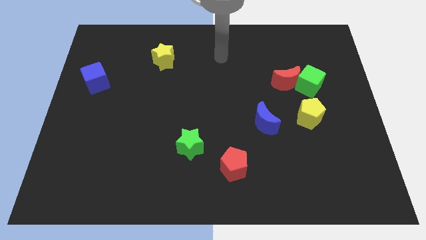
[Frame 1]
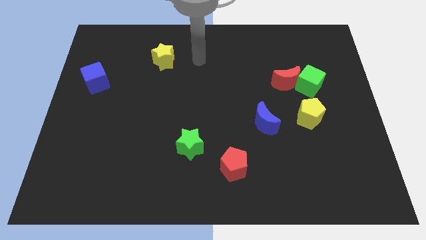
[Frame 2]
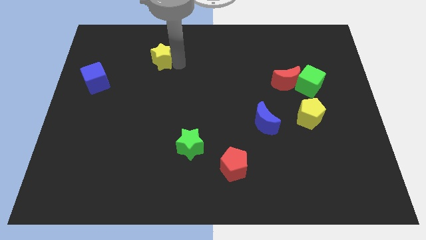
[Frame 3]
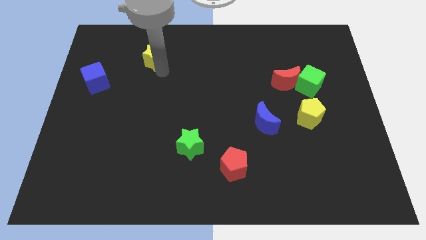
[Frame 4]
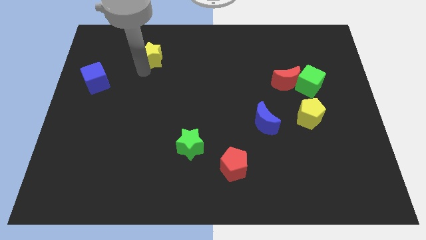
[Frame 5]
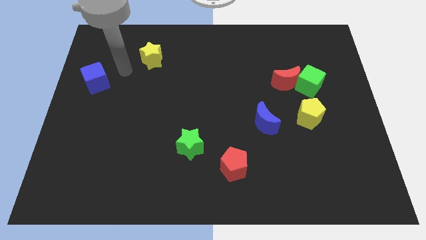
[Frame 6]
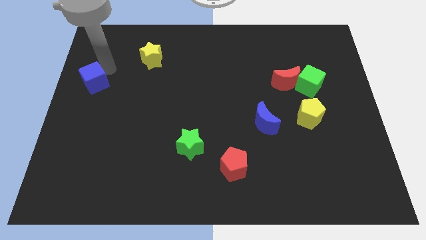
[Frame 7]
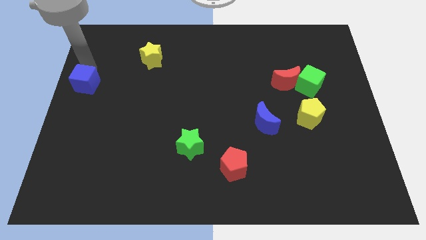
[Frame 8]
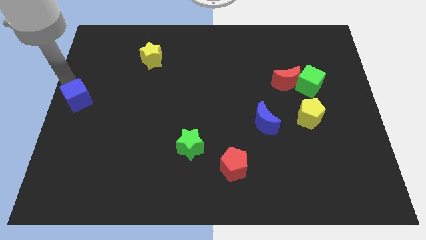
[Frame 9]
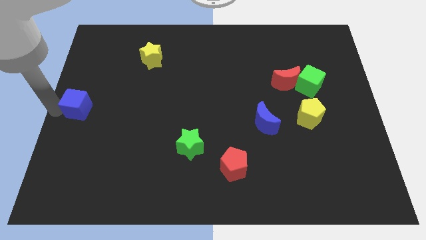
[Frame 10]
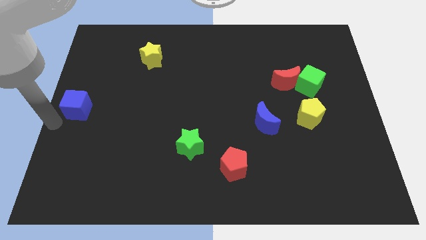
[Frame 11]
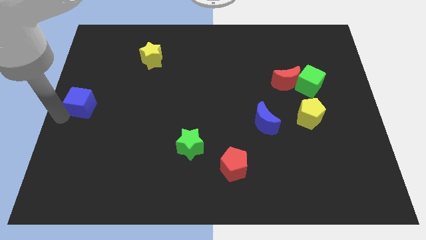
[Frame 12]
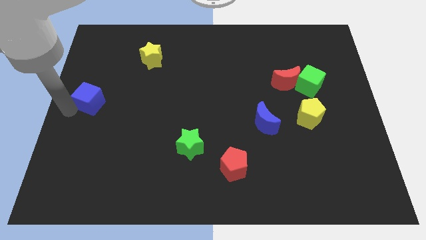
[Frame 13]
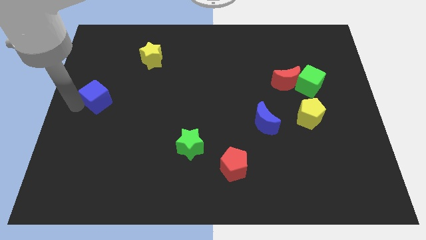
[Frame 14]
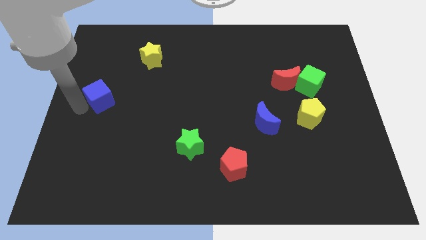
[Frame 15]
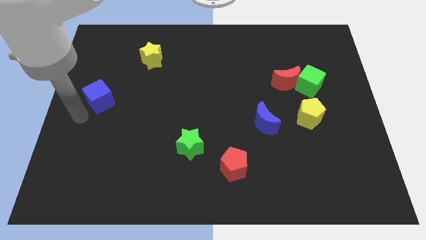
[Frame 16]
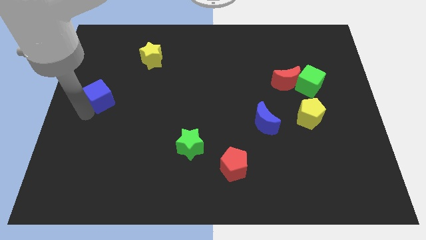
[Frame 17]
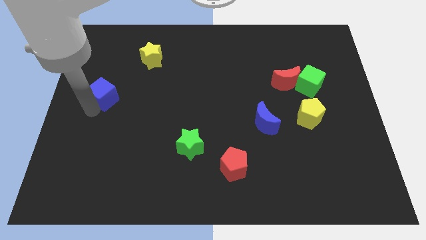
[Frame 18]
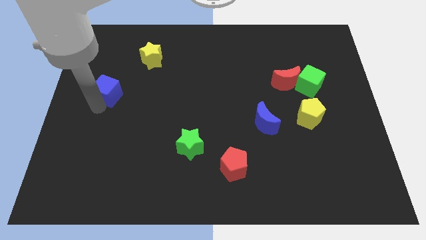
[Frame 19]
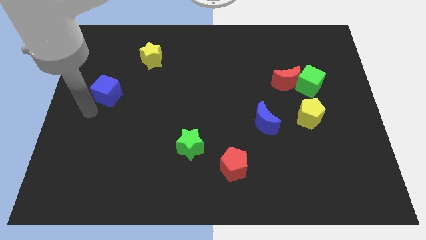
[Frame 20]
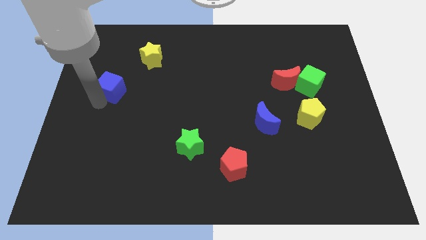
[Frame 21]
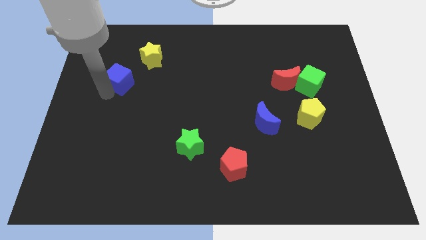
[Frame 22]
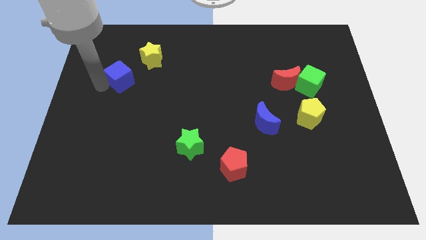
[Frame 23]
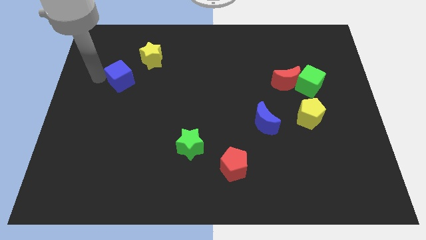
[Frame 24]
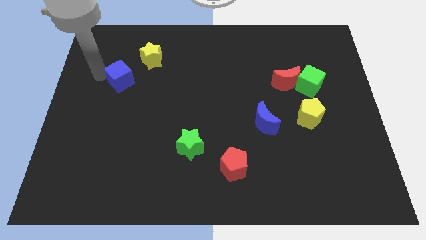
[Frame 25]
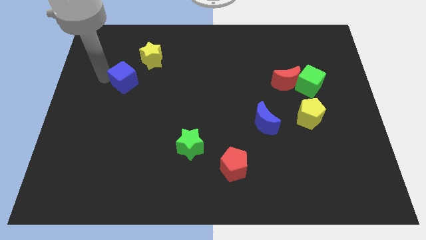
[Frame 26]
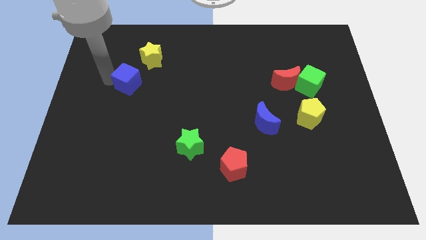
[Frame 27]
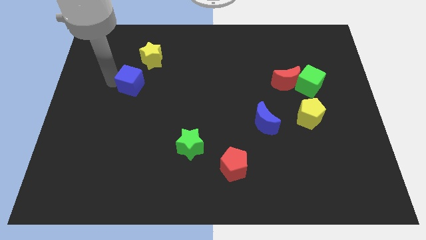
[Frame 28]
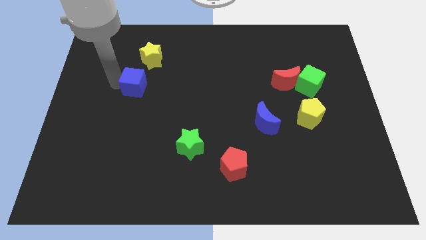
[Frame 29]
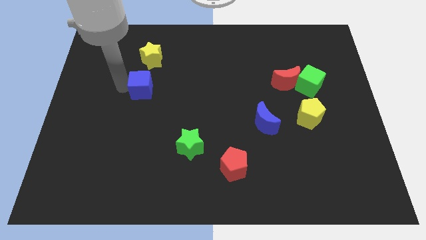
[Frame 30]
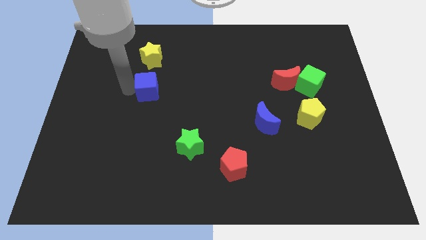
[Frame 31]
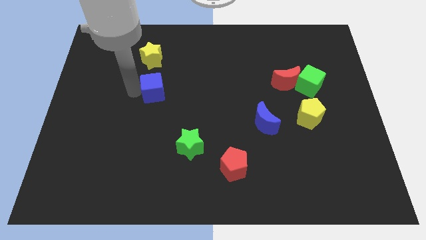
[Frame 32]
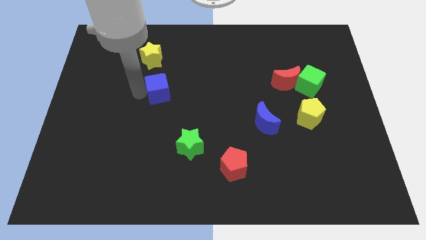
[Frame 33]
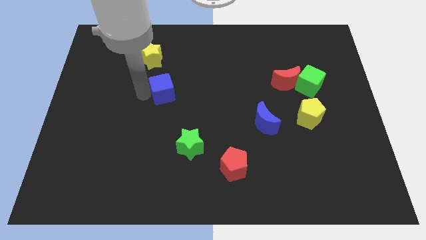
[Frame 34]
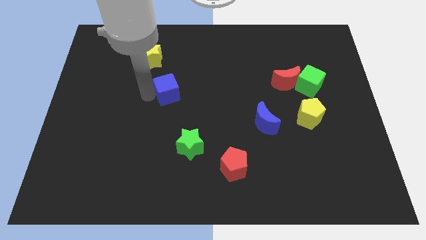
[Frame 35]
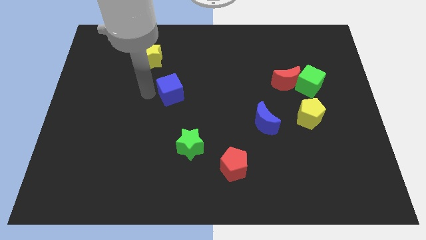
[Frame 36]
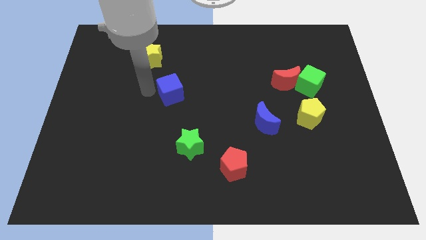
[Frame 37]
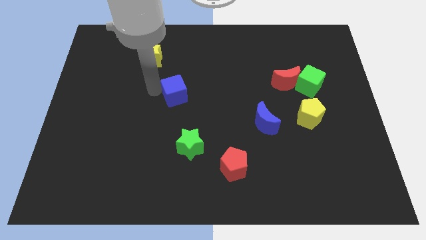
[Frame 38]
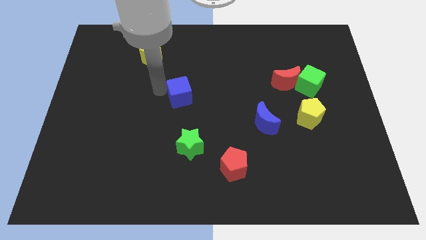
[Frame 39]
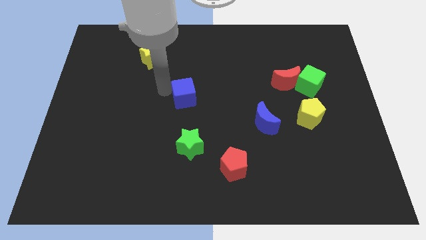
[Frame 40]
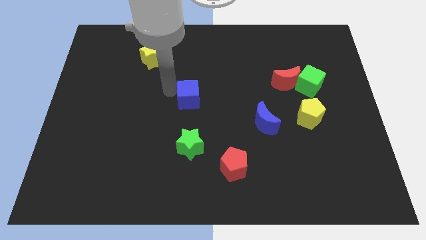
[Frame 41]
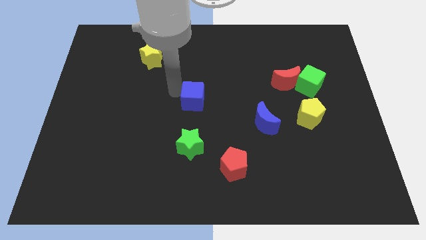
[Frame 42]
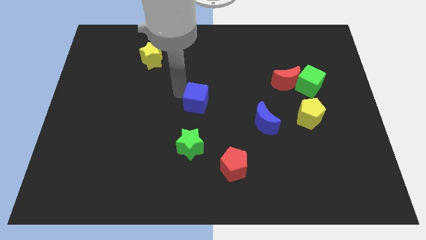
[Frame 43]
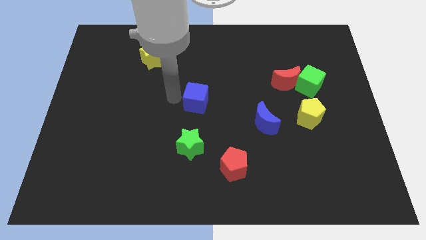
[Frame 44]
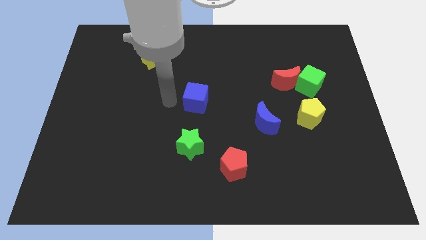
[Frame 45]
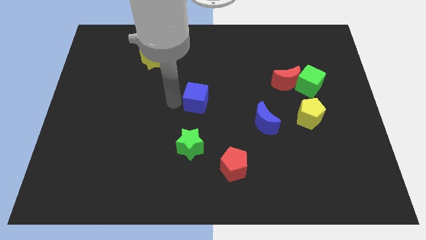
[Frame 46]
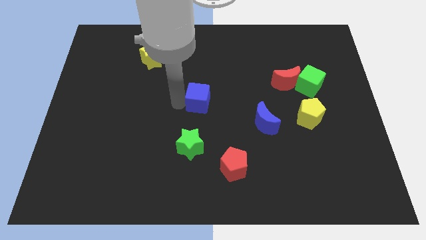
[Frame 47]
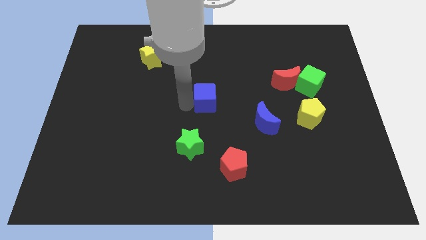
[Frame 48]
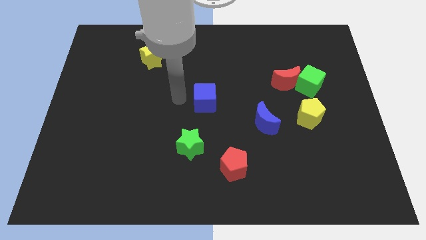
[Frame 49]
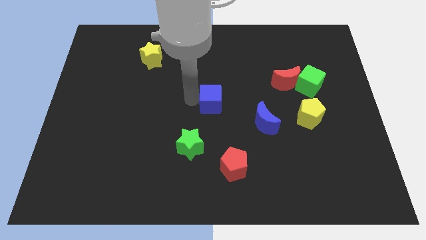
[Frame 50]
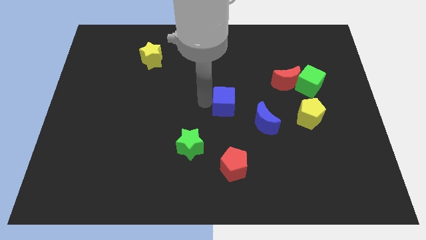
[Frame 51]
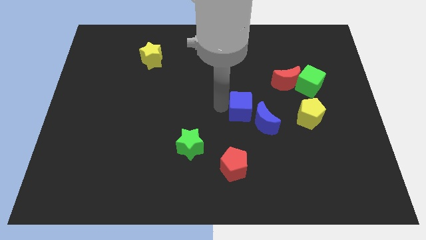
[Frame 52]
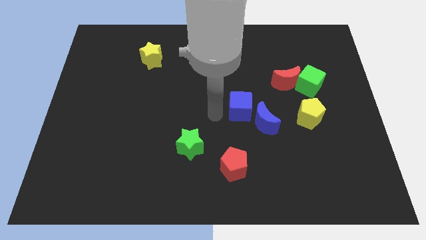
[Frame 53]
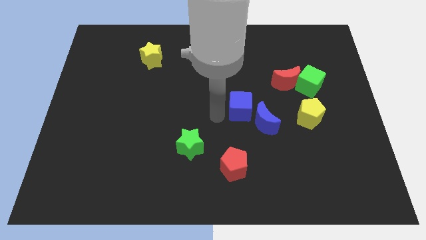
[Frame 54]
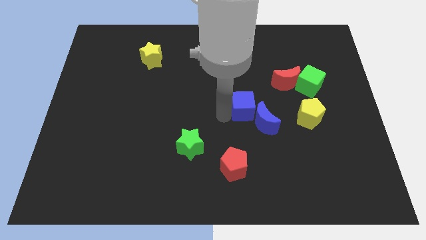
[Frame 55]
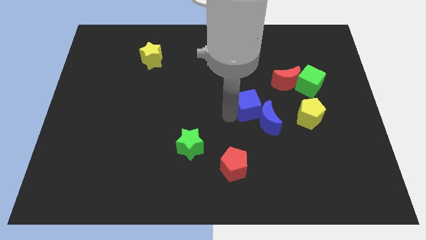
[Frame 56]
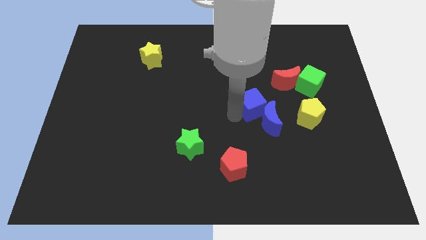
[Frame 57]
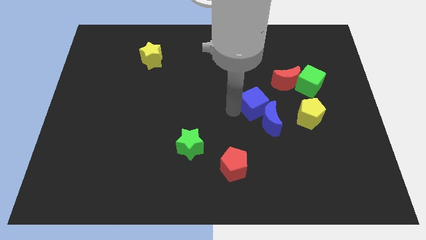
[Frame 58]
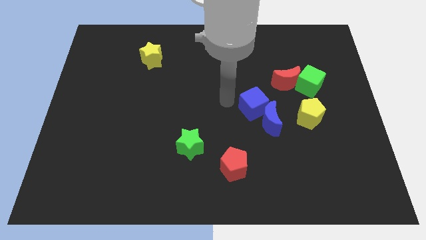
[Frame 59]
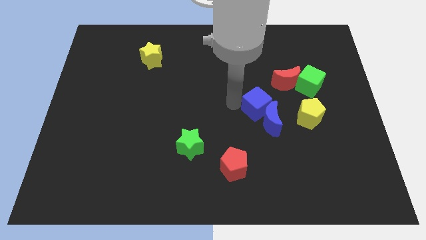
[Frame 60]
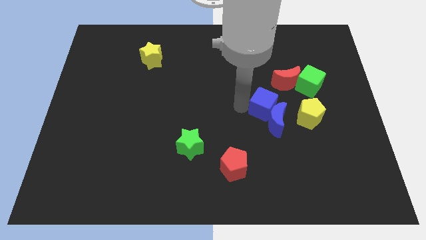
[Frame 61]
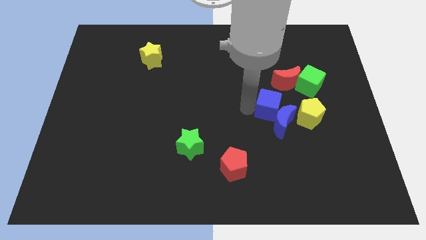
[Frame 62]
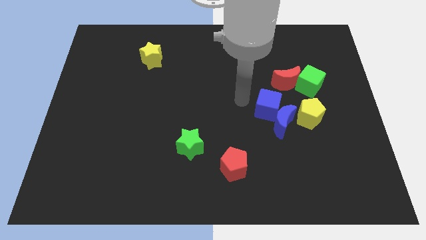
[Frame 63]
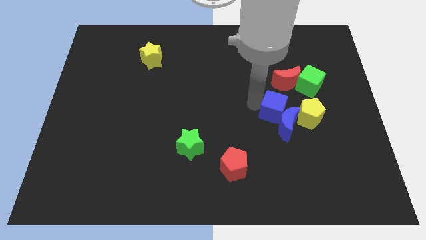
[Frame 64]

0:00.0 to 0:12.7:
move the blue cube below the red moon
